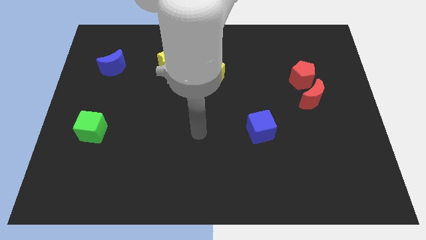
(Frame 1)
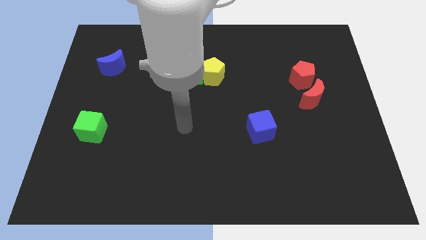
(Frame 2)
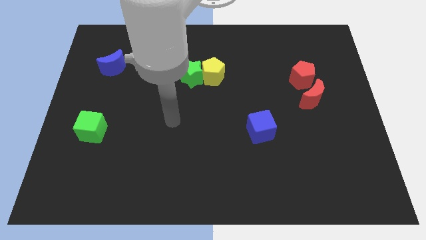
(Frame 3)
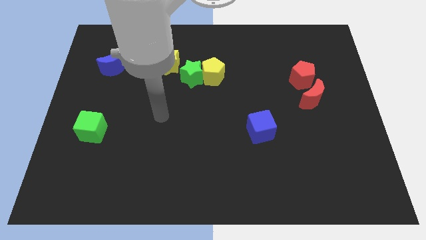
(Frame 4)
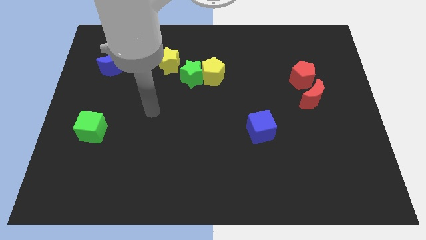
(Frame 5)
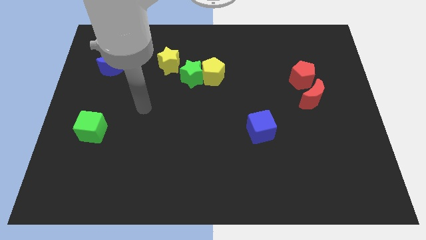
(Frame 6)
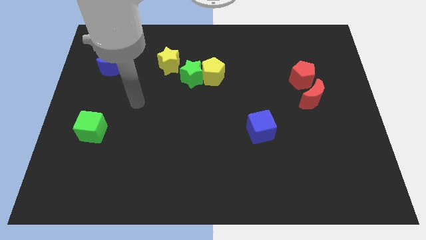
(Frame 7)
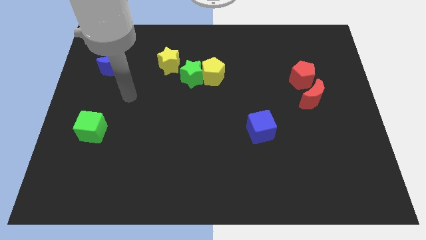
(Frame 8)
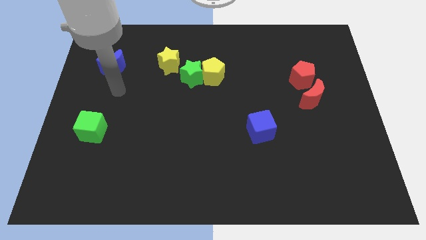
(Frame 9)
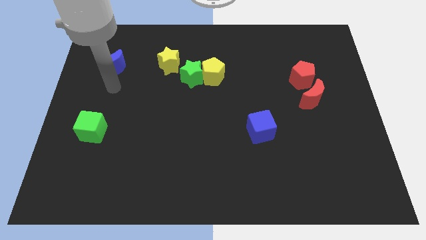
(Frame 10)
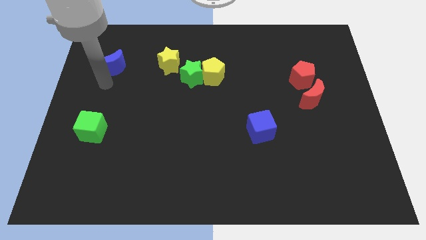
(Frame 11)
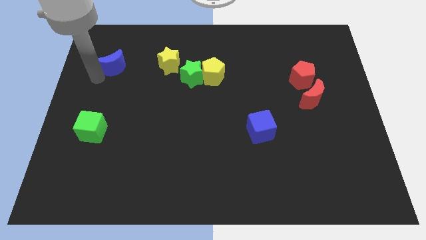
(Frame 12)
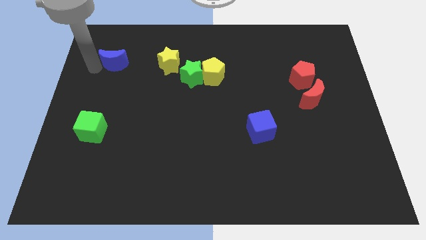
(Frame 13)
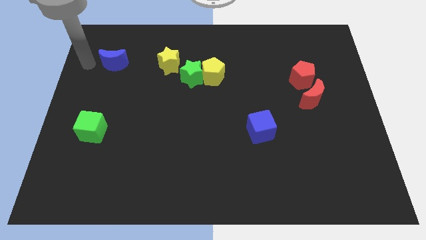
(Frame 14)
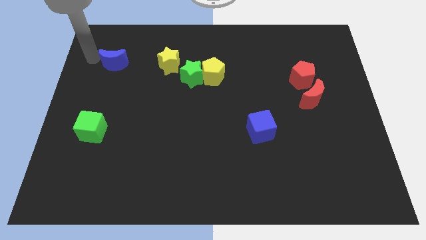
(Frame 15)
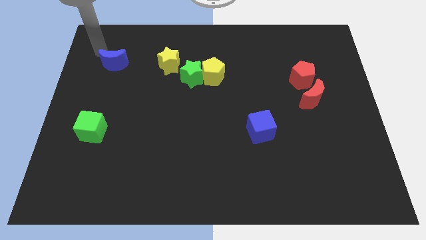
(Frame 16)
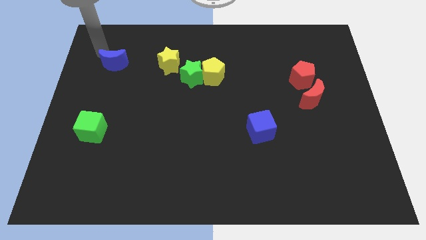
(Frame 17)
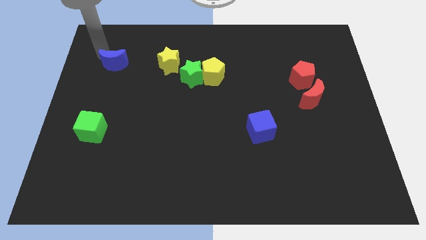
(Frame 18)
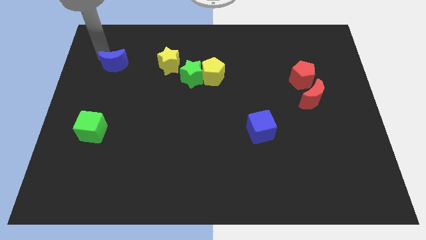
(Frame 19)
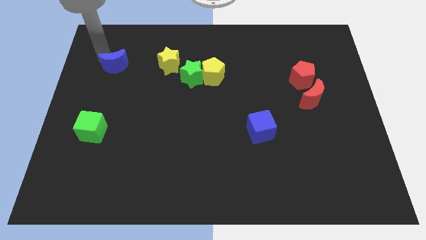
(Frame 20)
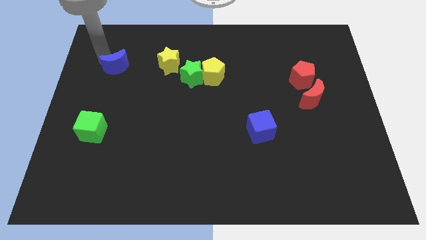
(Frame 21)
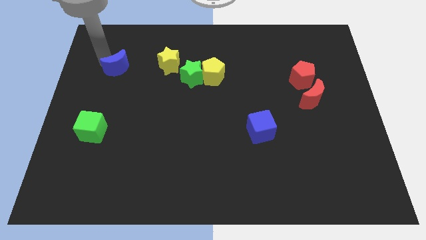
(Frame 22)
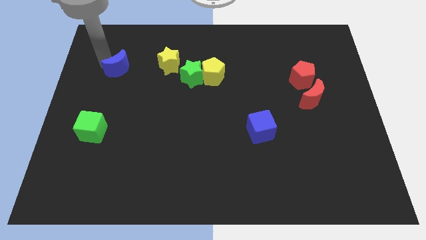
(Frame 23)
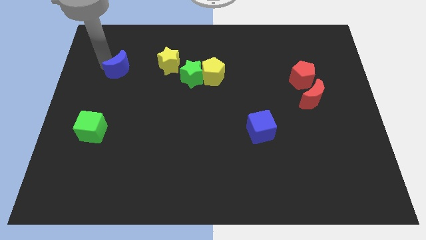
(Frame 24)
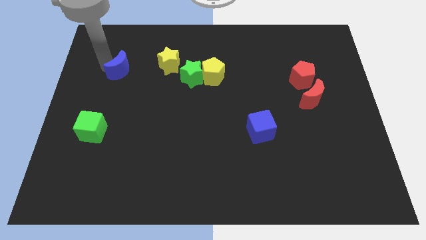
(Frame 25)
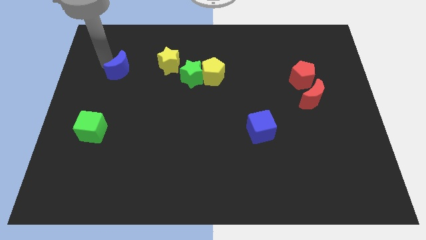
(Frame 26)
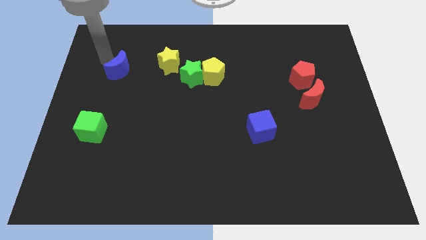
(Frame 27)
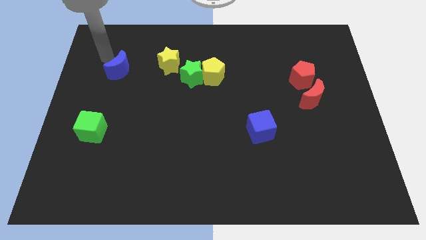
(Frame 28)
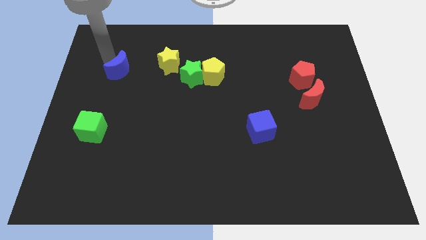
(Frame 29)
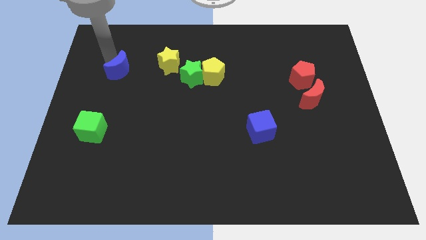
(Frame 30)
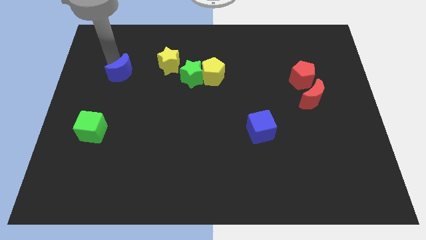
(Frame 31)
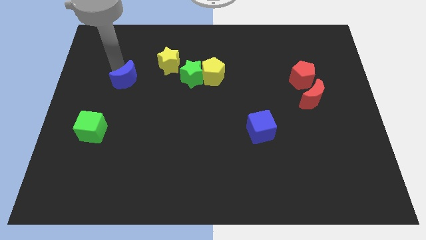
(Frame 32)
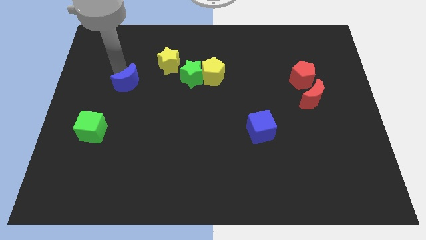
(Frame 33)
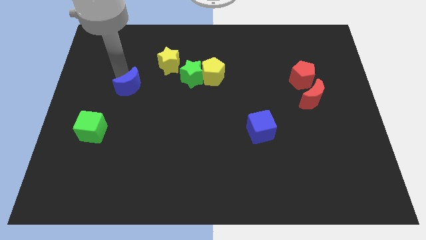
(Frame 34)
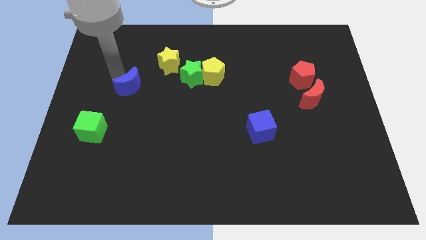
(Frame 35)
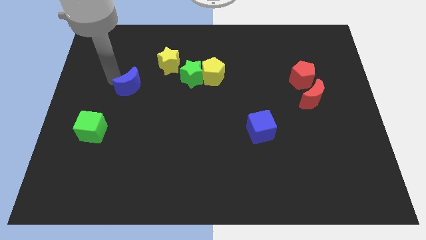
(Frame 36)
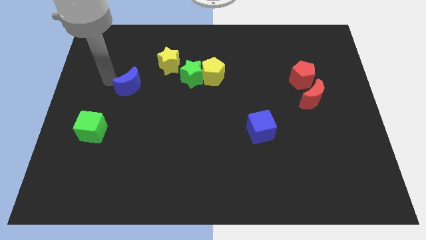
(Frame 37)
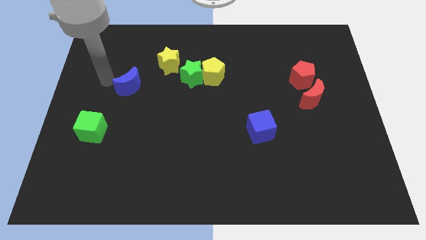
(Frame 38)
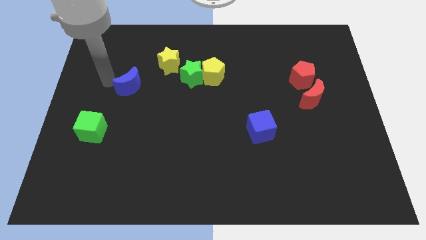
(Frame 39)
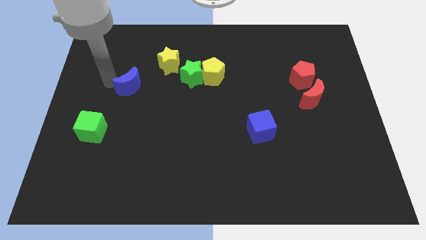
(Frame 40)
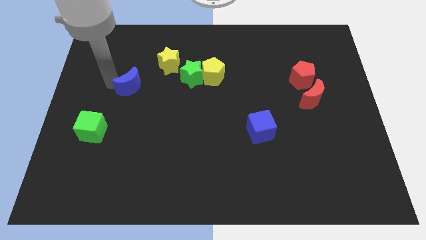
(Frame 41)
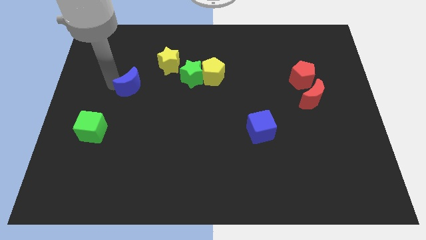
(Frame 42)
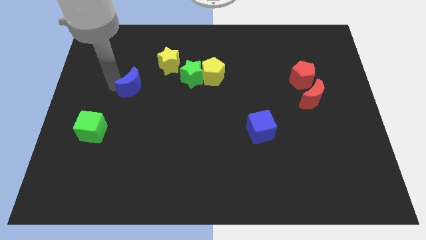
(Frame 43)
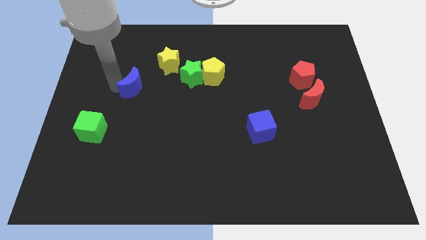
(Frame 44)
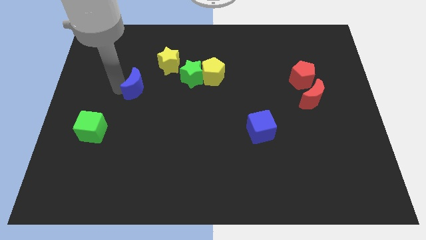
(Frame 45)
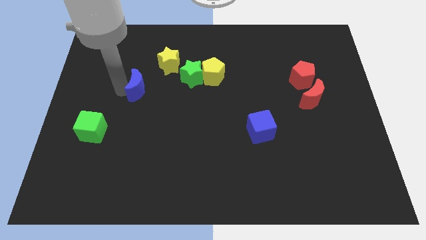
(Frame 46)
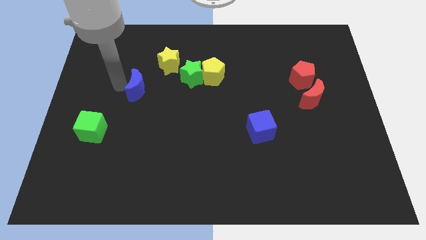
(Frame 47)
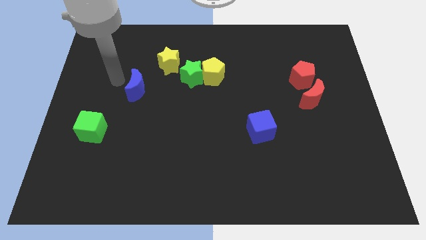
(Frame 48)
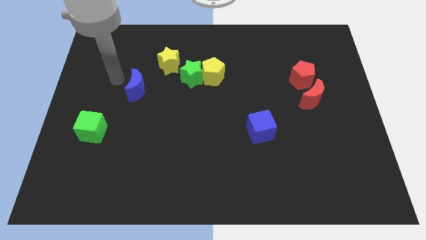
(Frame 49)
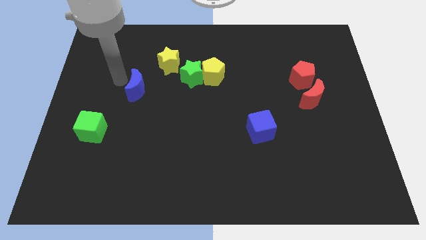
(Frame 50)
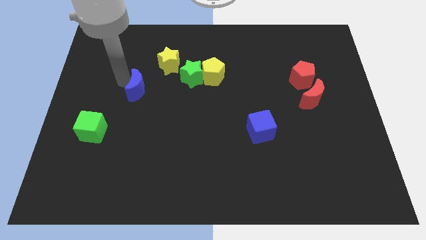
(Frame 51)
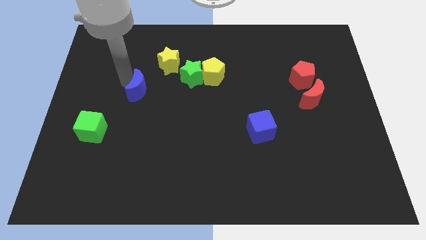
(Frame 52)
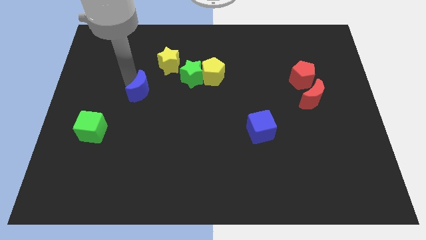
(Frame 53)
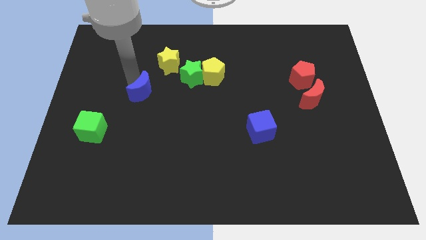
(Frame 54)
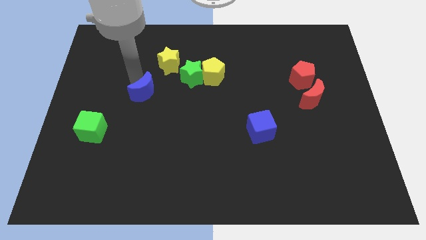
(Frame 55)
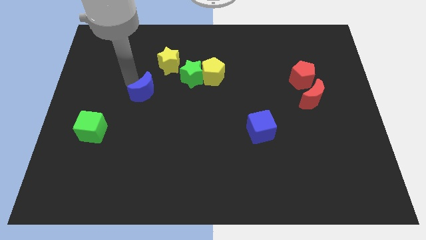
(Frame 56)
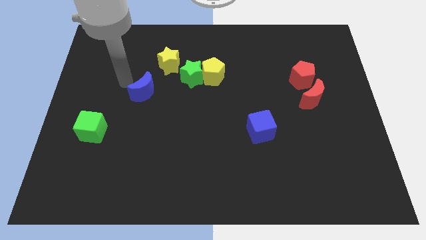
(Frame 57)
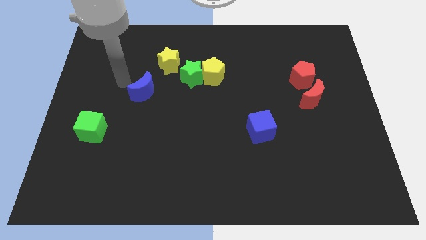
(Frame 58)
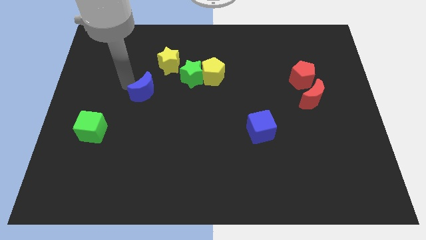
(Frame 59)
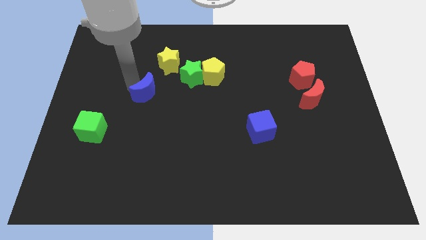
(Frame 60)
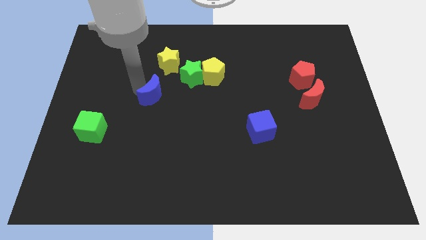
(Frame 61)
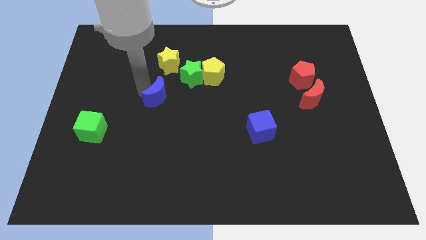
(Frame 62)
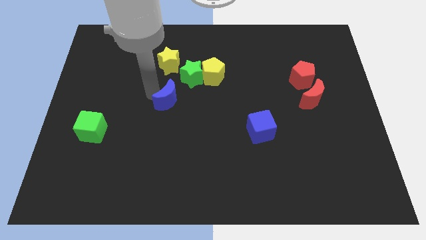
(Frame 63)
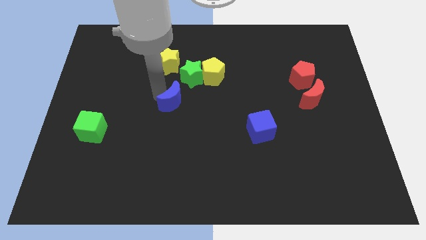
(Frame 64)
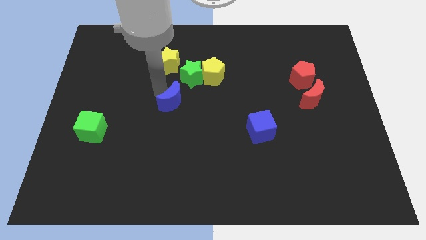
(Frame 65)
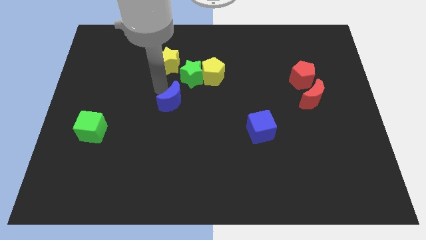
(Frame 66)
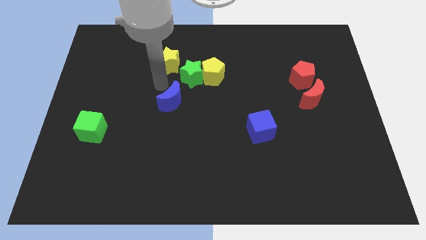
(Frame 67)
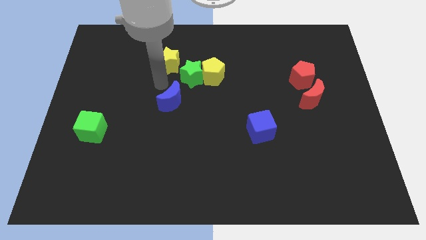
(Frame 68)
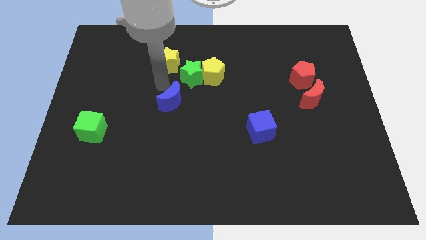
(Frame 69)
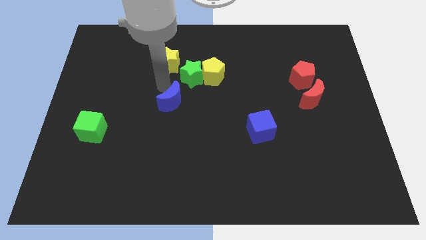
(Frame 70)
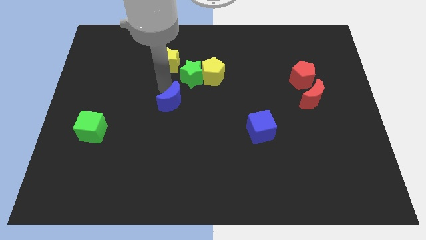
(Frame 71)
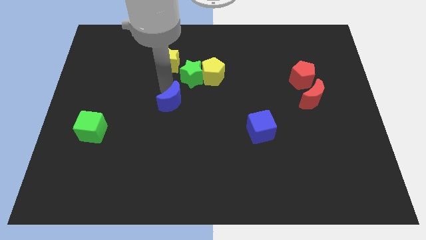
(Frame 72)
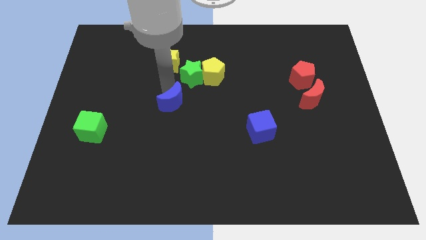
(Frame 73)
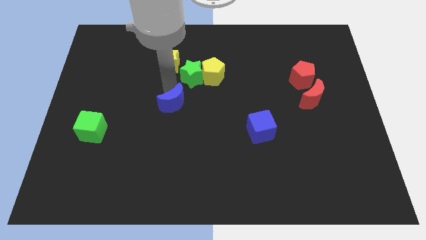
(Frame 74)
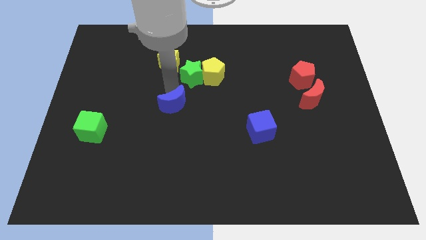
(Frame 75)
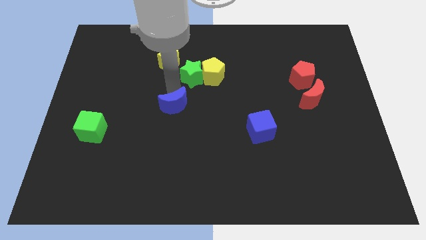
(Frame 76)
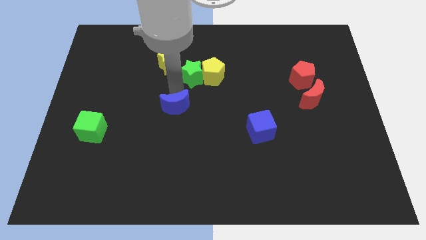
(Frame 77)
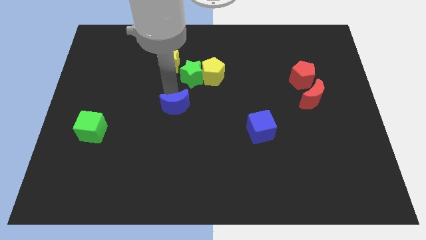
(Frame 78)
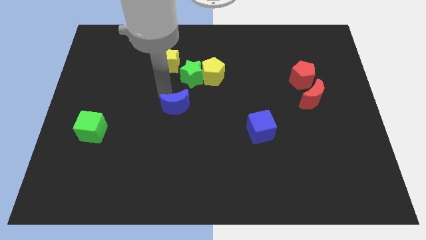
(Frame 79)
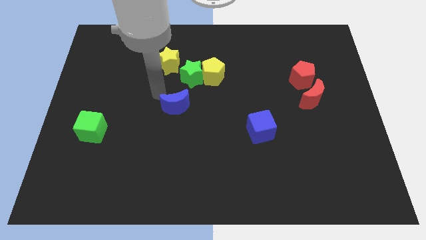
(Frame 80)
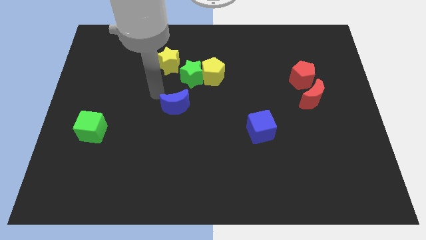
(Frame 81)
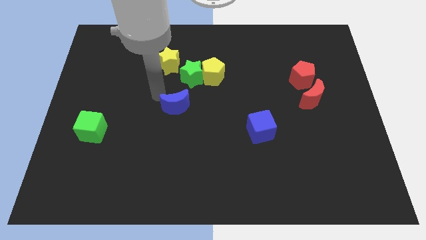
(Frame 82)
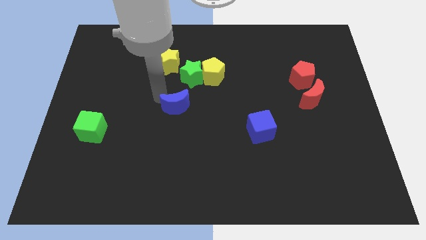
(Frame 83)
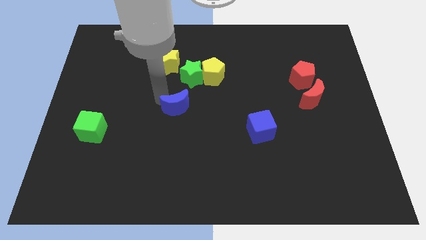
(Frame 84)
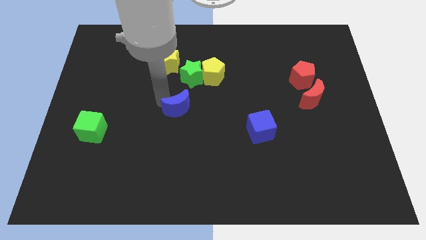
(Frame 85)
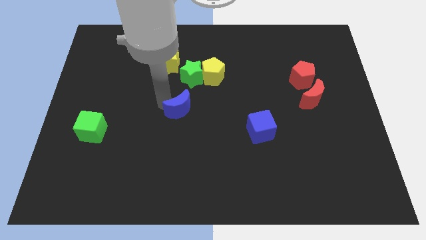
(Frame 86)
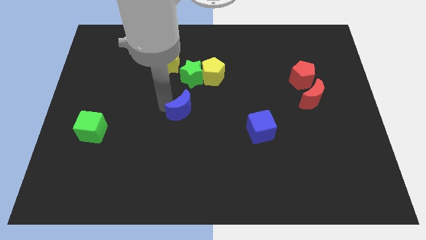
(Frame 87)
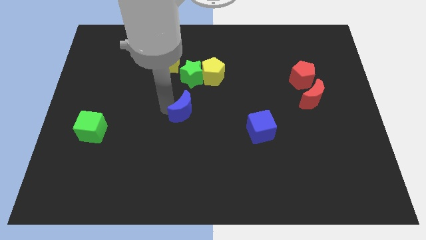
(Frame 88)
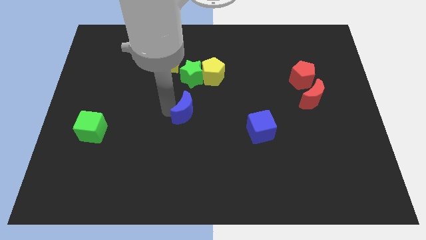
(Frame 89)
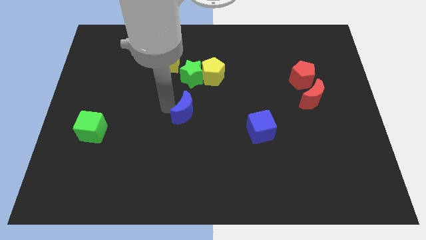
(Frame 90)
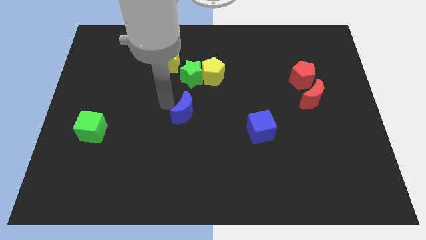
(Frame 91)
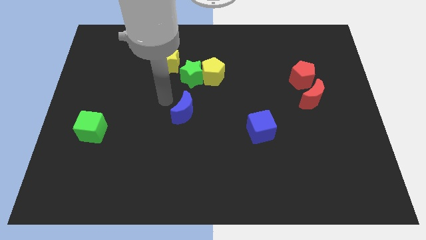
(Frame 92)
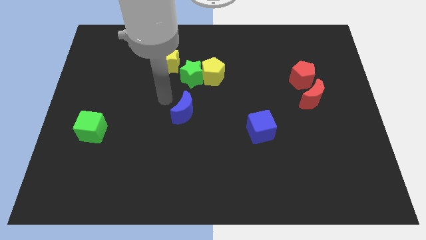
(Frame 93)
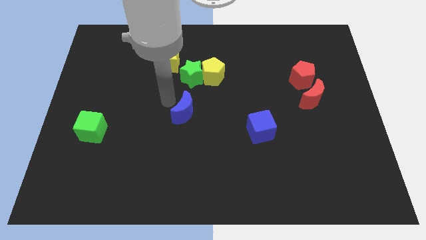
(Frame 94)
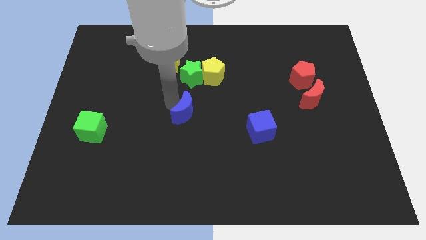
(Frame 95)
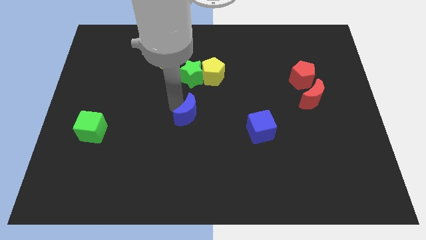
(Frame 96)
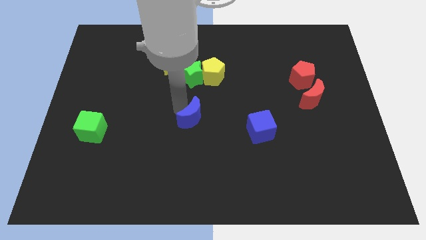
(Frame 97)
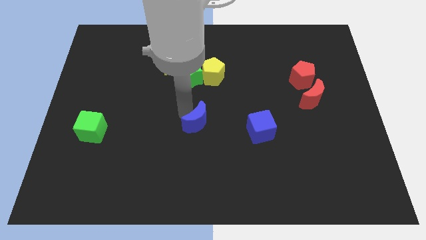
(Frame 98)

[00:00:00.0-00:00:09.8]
push the blue moon to the left side of the blue cube
